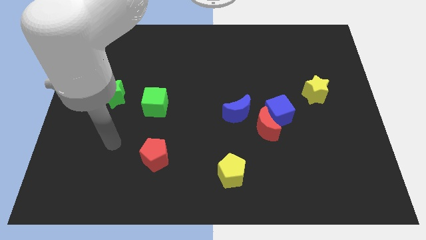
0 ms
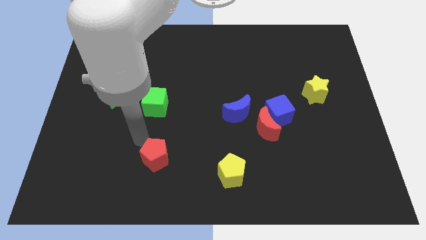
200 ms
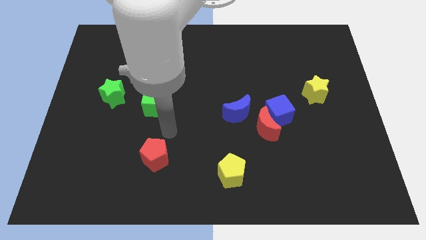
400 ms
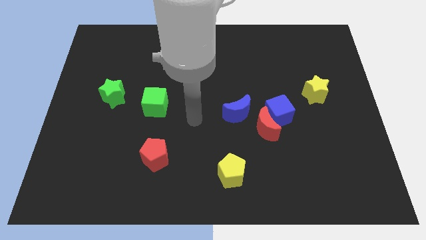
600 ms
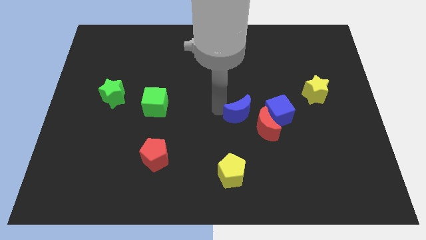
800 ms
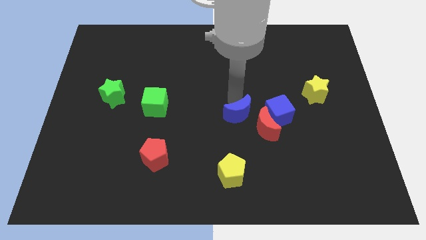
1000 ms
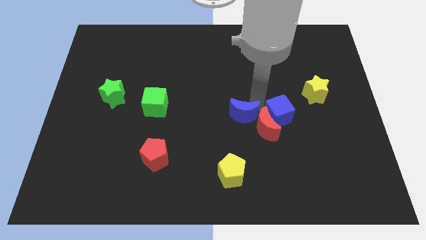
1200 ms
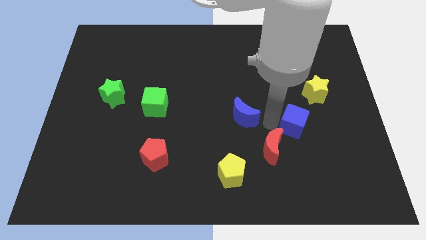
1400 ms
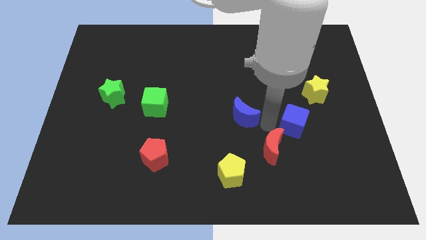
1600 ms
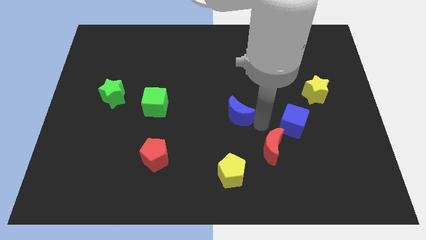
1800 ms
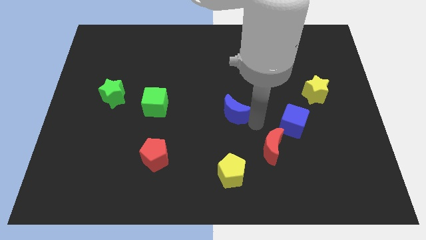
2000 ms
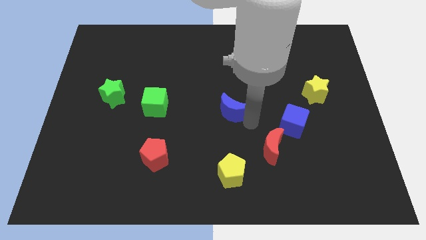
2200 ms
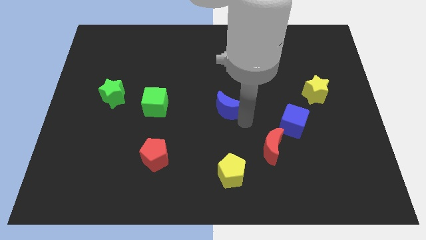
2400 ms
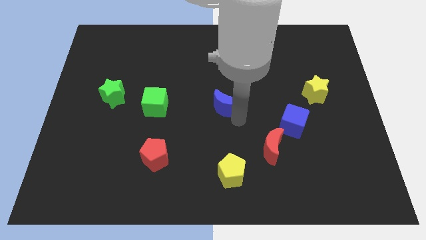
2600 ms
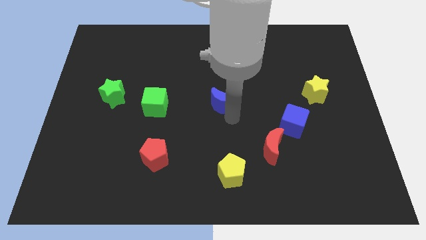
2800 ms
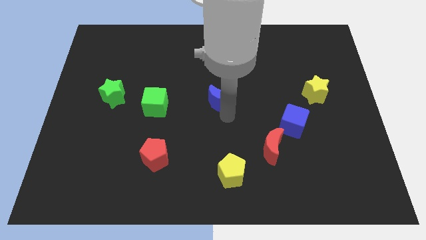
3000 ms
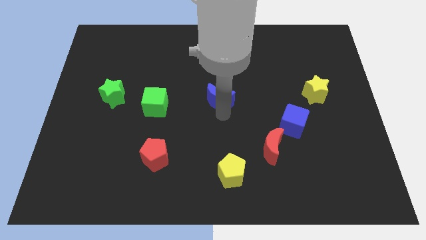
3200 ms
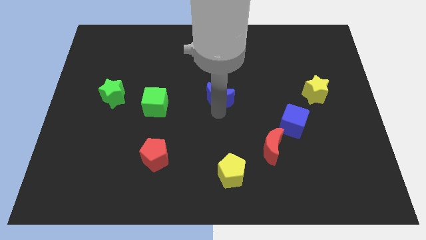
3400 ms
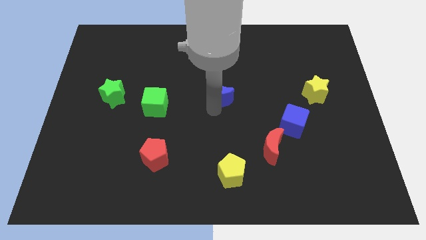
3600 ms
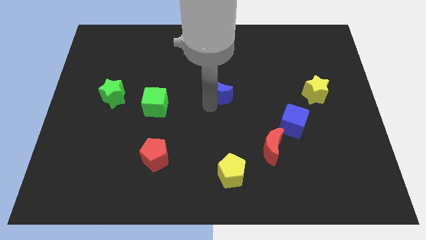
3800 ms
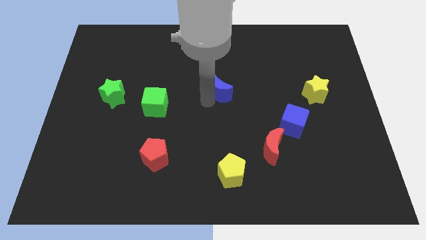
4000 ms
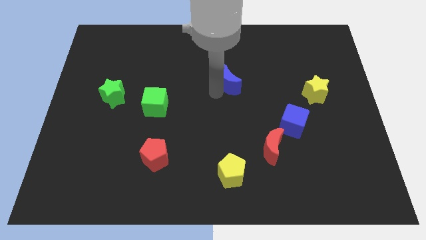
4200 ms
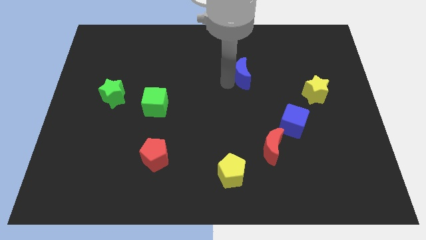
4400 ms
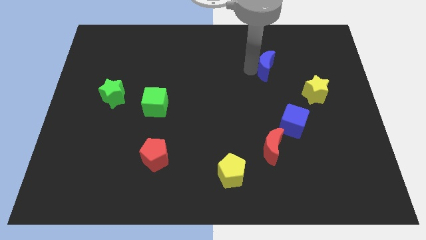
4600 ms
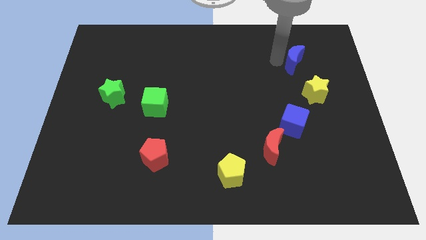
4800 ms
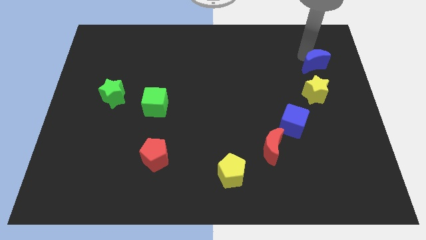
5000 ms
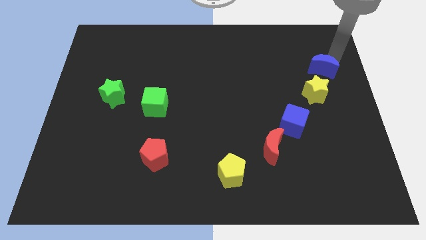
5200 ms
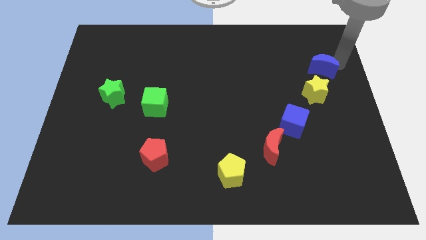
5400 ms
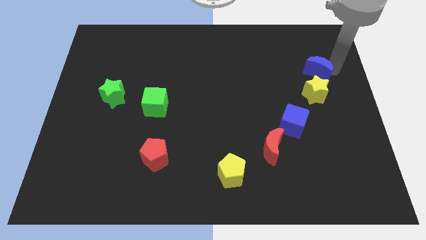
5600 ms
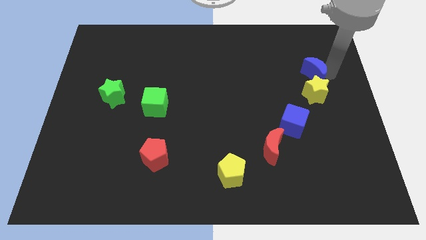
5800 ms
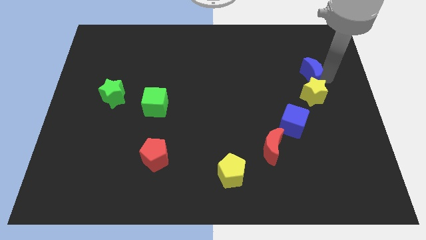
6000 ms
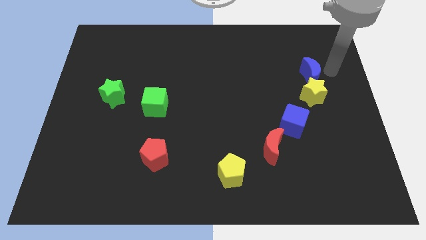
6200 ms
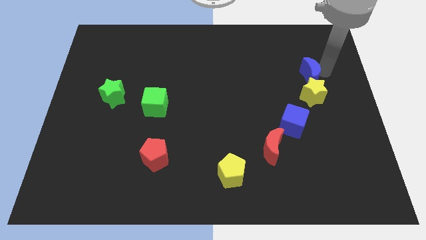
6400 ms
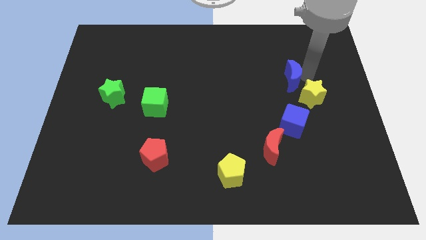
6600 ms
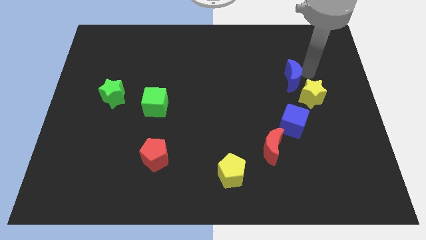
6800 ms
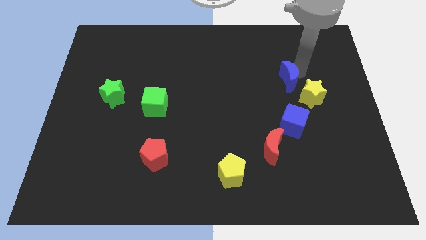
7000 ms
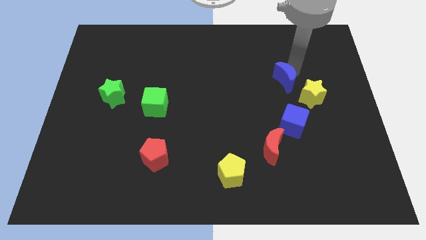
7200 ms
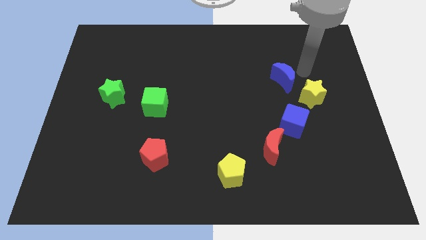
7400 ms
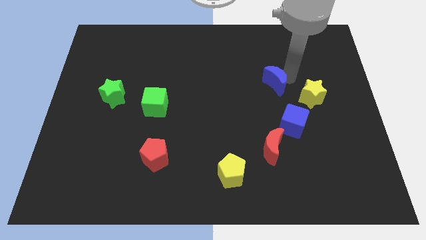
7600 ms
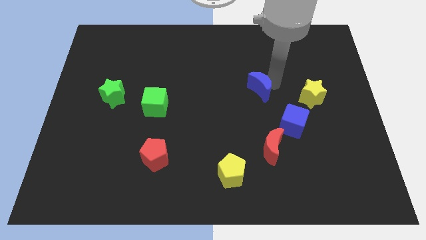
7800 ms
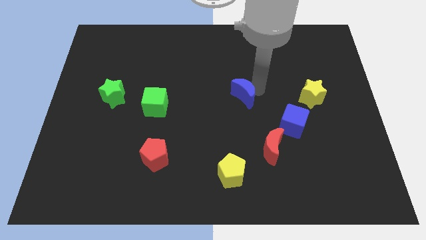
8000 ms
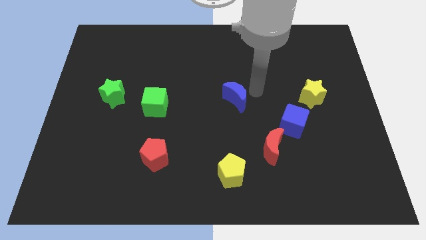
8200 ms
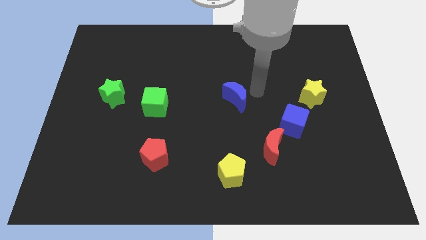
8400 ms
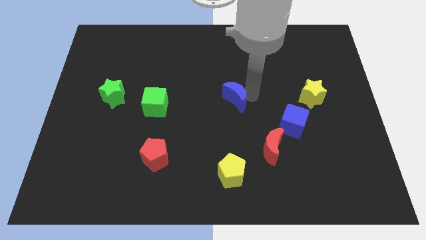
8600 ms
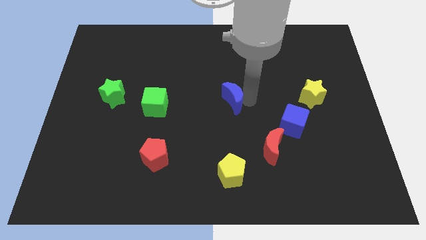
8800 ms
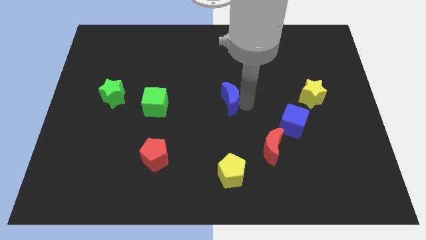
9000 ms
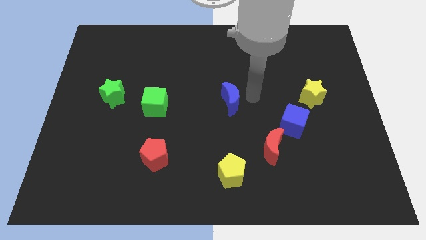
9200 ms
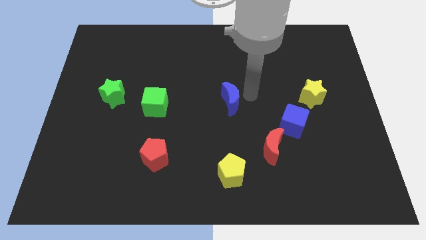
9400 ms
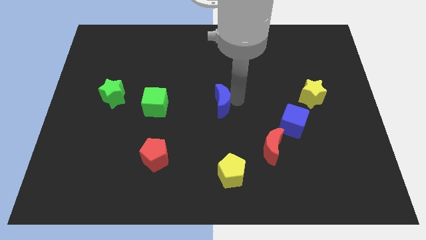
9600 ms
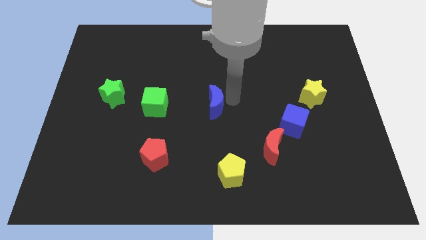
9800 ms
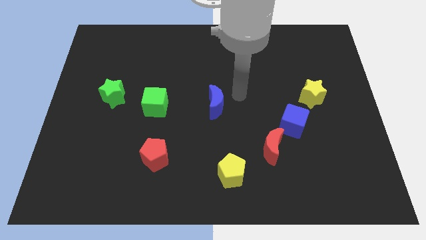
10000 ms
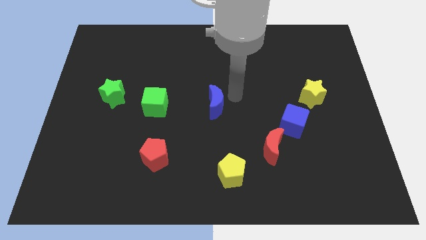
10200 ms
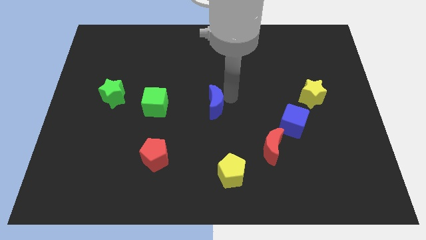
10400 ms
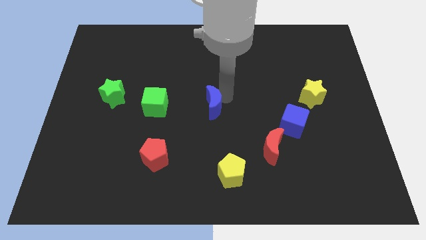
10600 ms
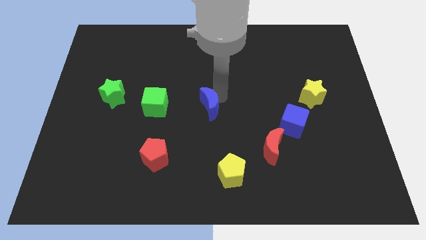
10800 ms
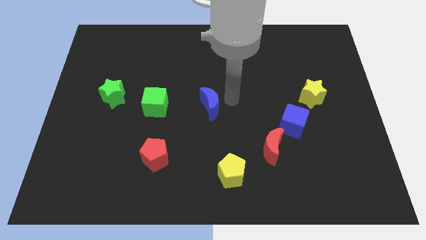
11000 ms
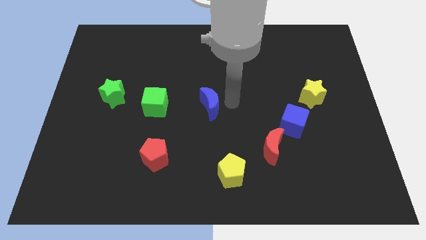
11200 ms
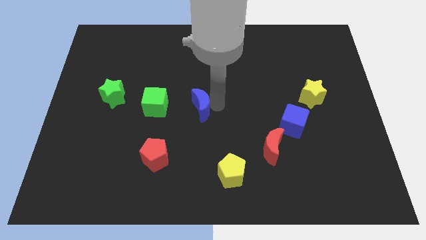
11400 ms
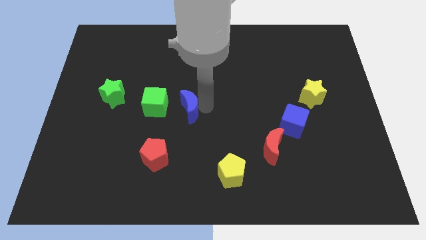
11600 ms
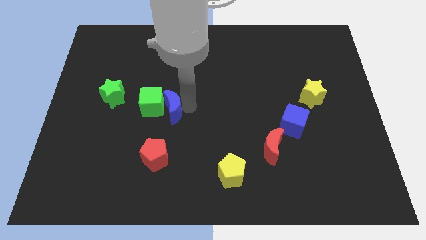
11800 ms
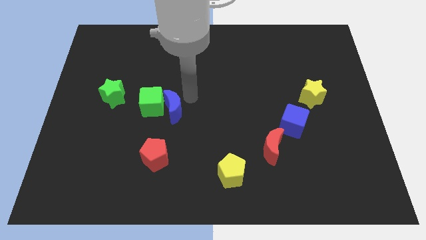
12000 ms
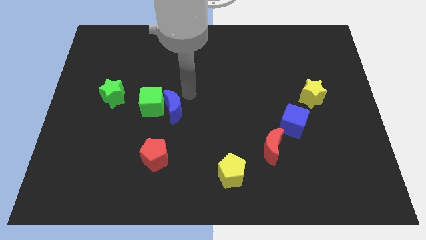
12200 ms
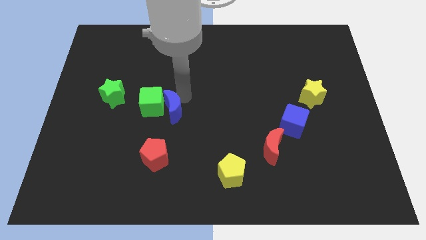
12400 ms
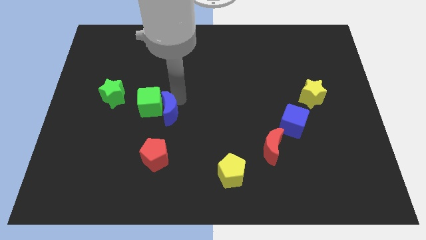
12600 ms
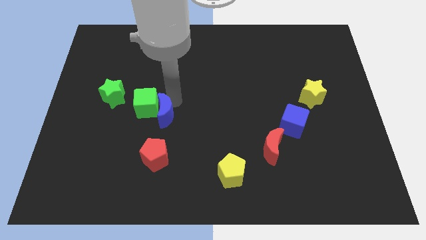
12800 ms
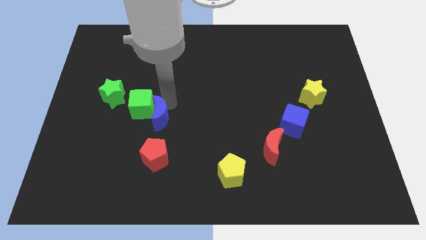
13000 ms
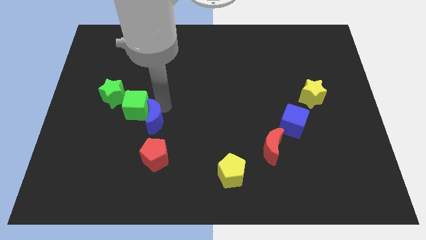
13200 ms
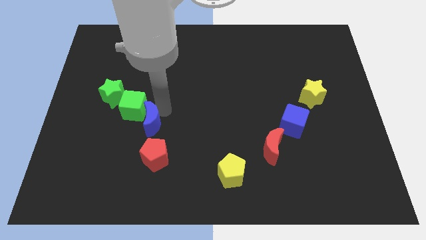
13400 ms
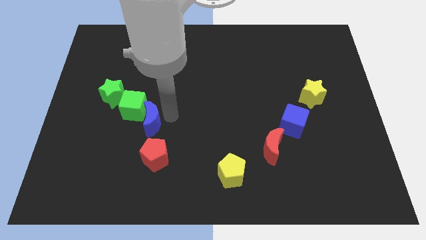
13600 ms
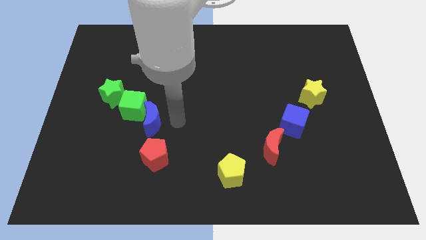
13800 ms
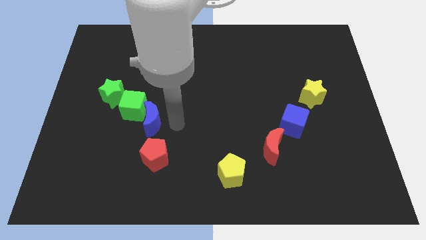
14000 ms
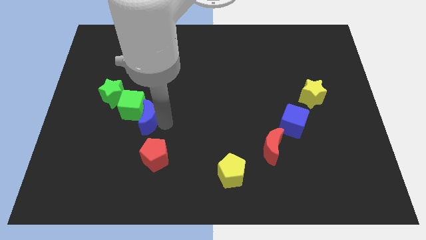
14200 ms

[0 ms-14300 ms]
move the blue moon left
